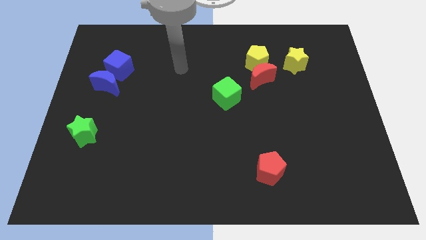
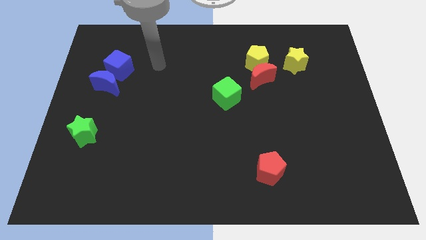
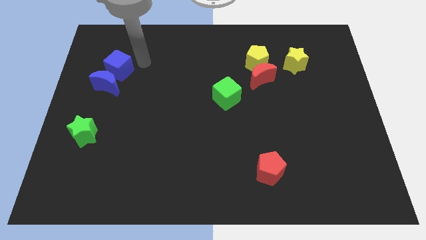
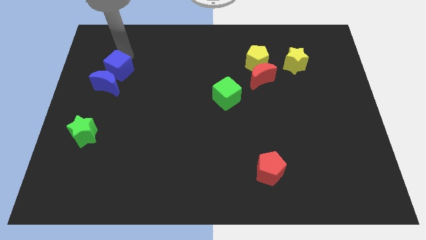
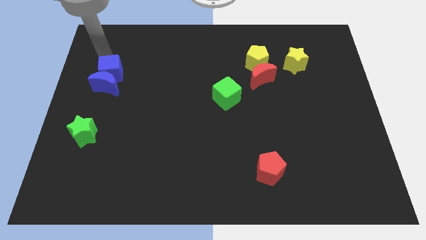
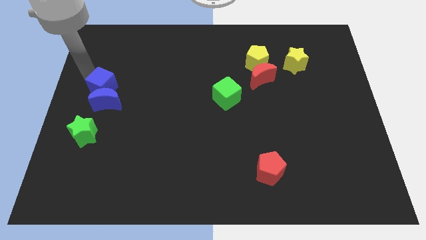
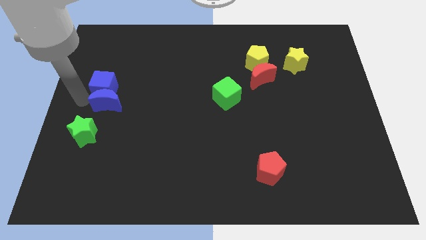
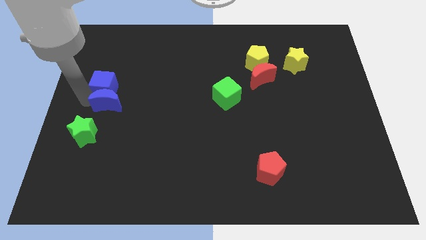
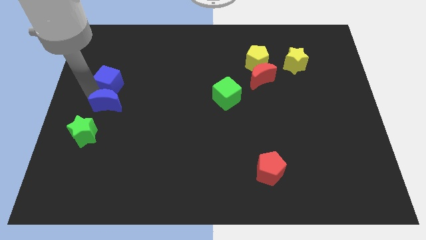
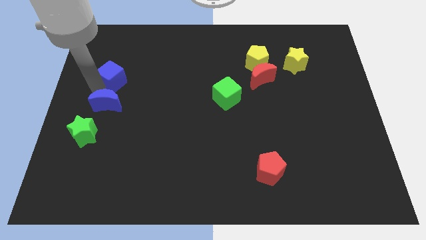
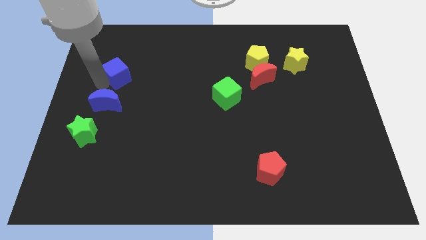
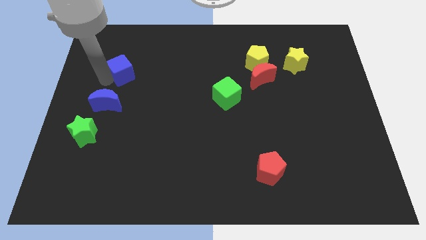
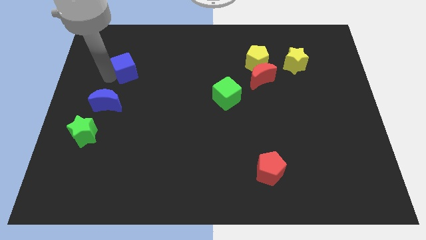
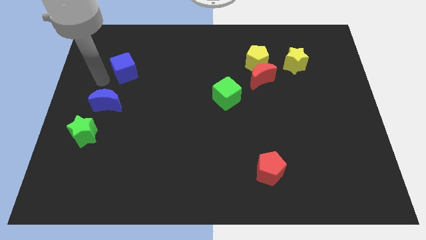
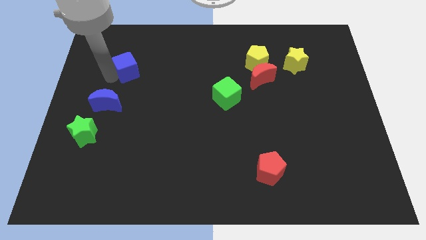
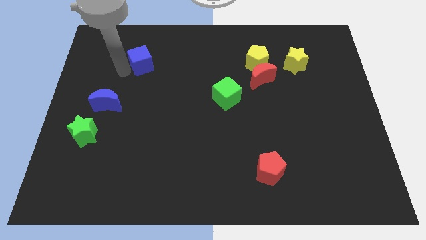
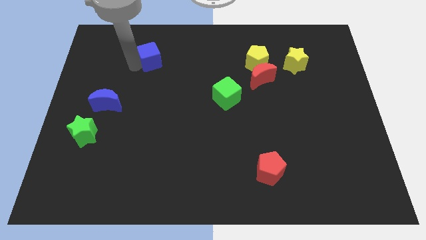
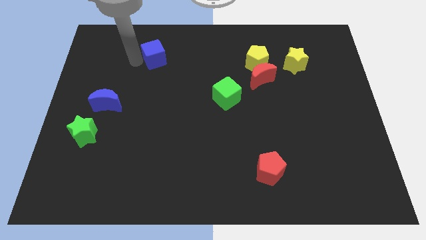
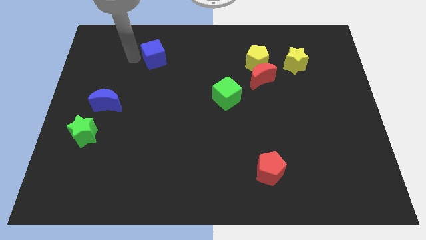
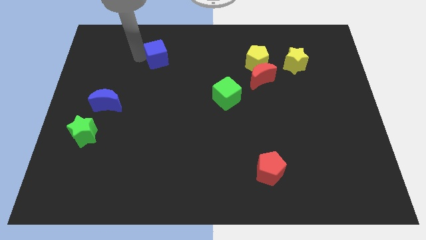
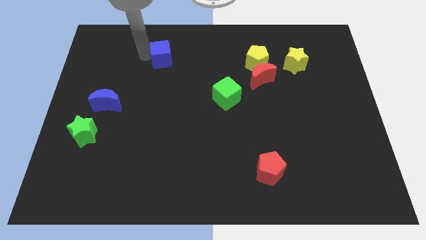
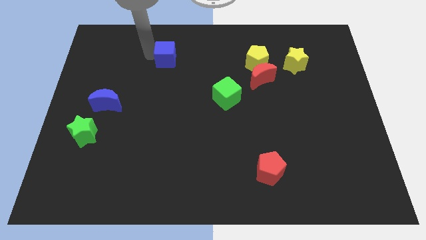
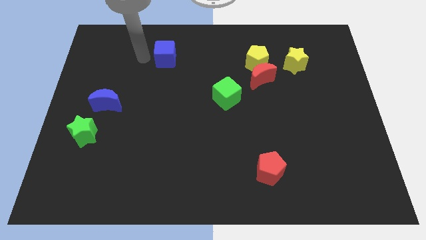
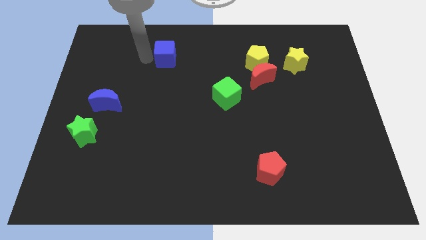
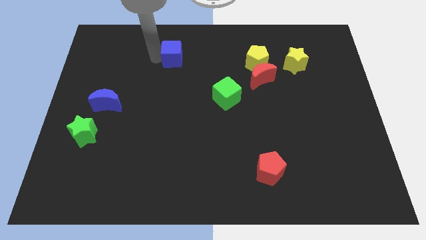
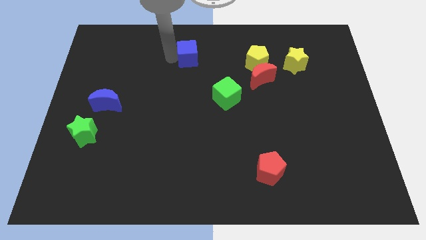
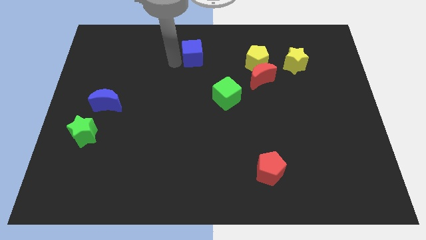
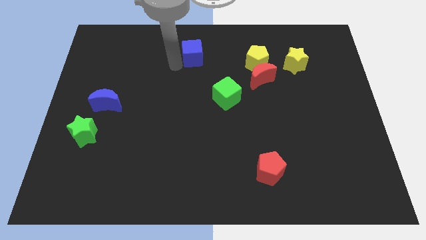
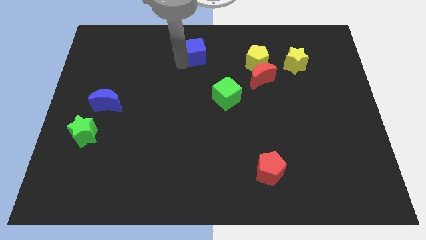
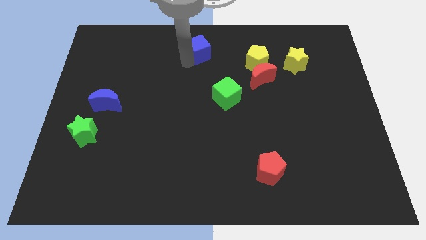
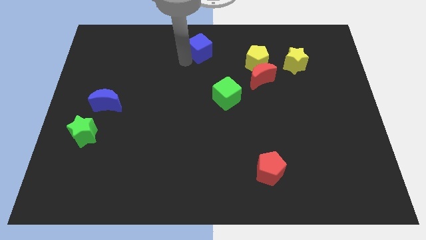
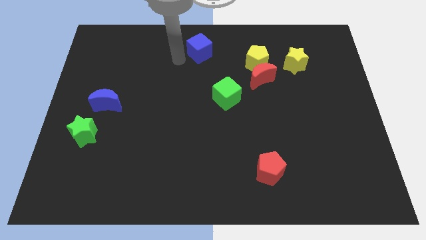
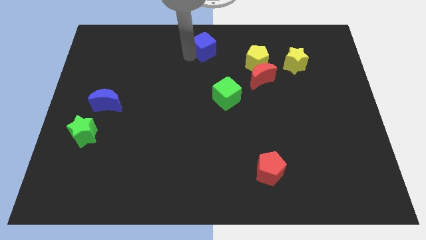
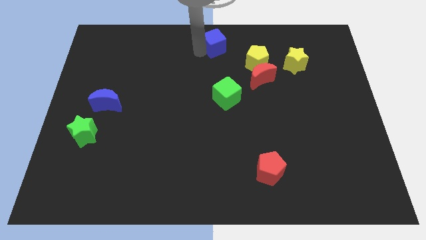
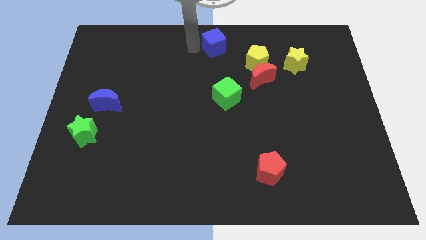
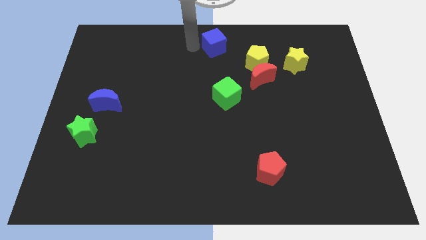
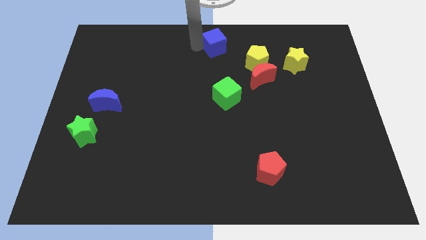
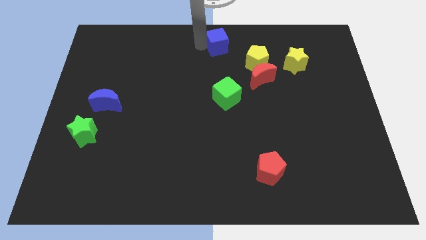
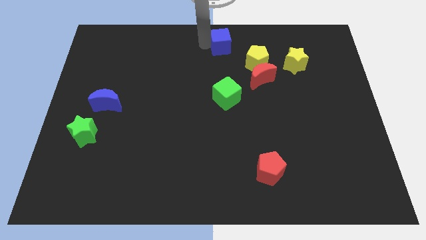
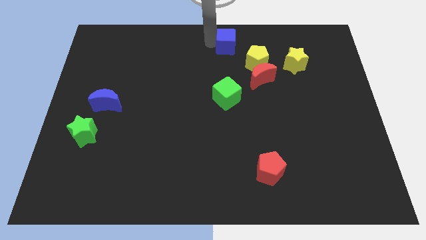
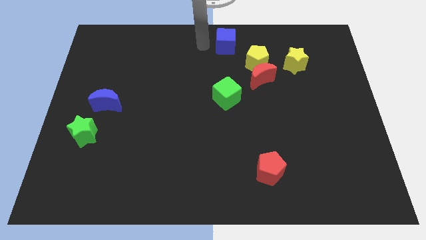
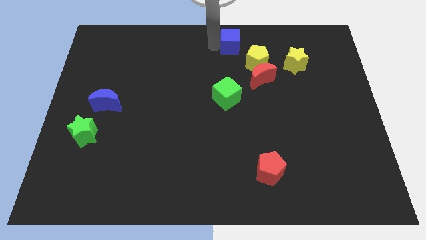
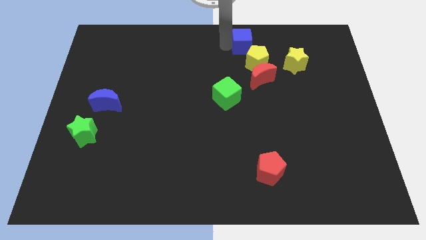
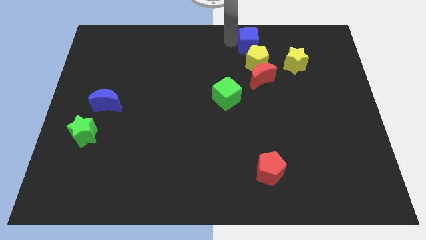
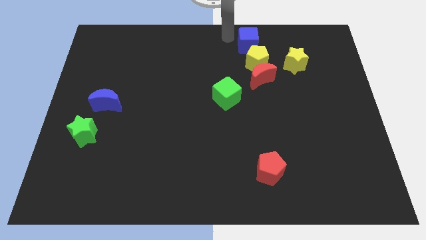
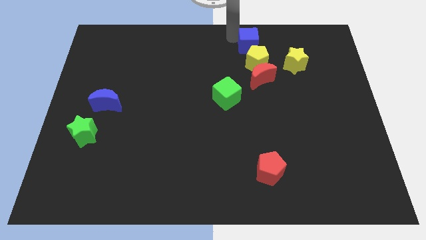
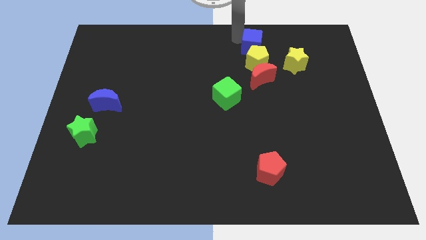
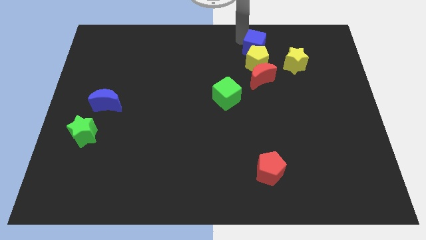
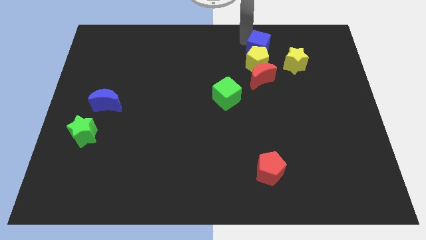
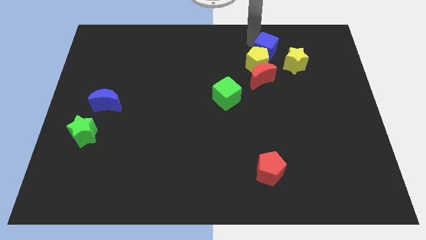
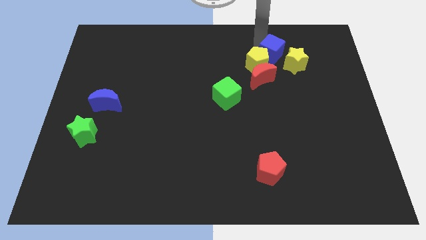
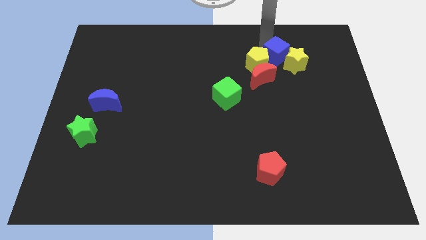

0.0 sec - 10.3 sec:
move the blue cube towards the yellow star

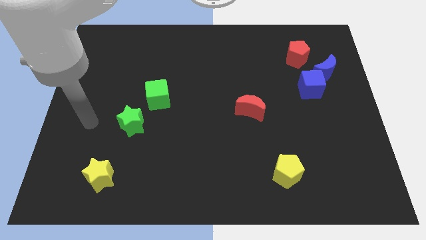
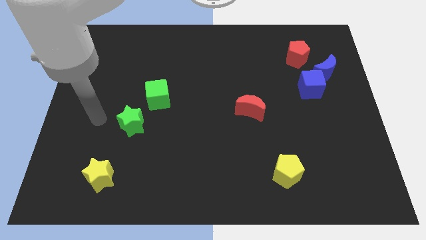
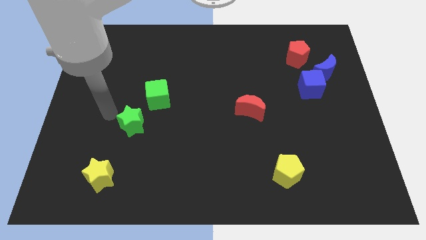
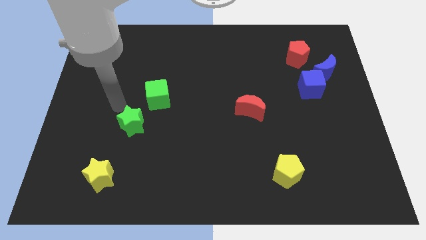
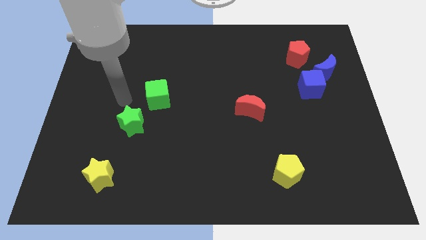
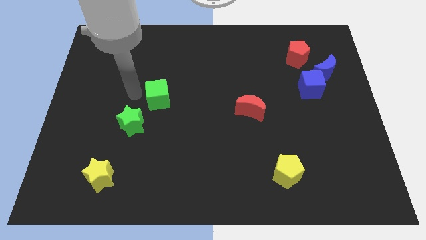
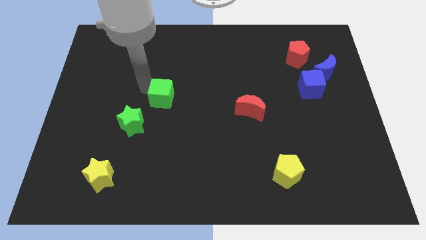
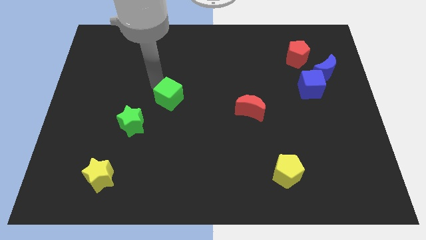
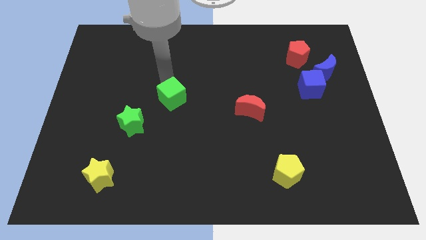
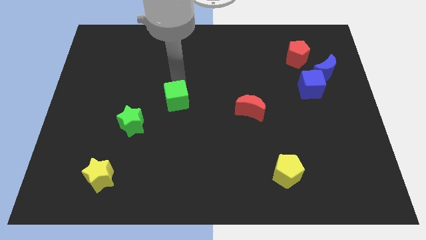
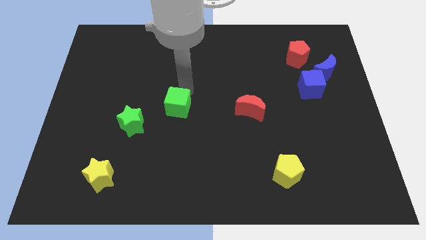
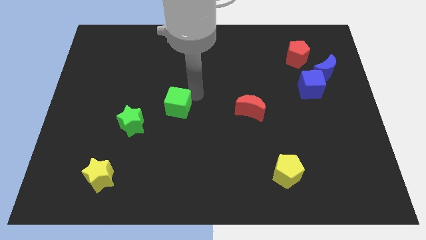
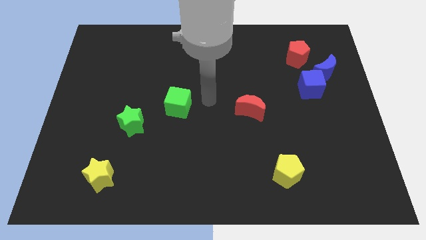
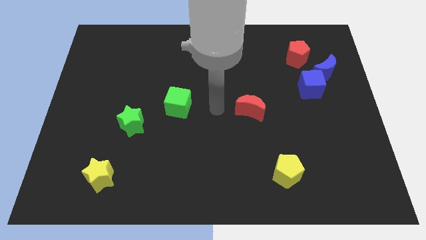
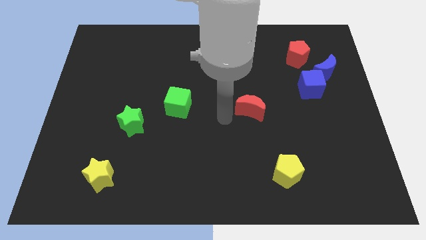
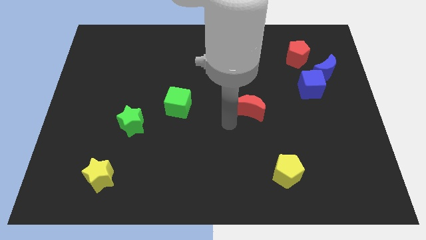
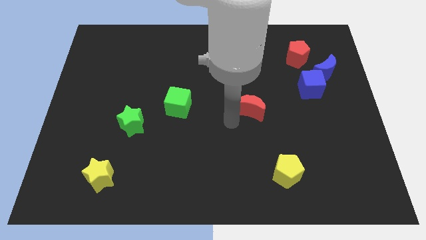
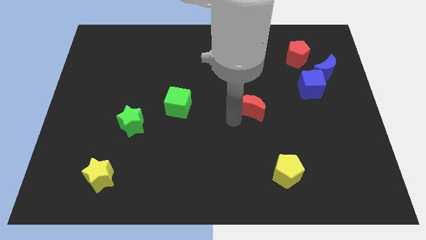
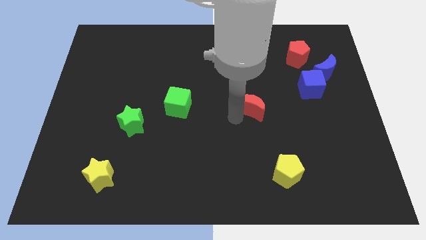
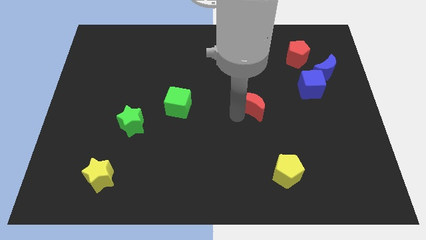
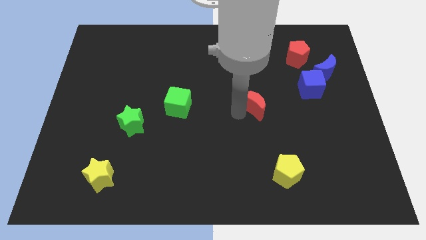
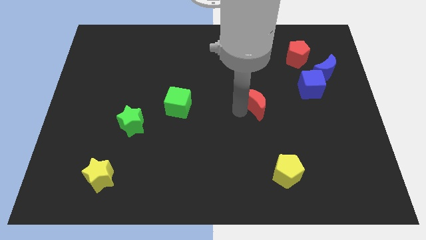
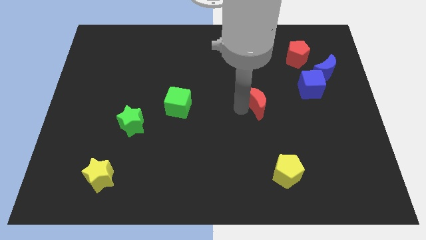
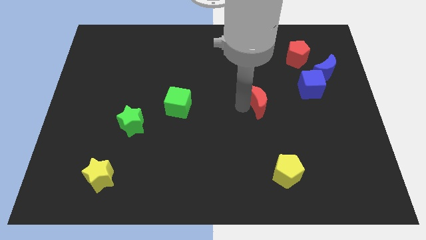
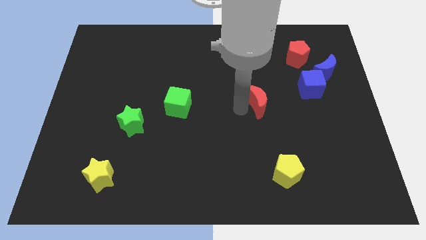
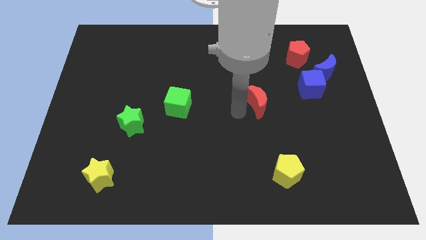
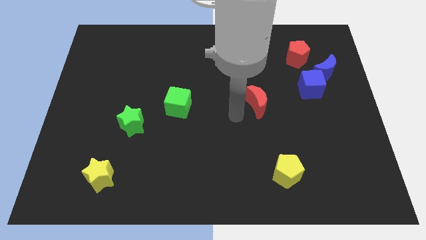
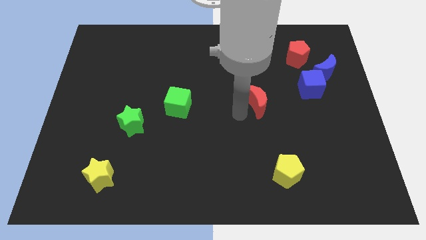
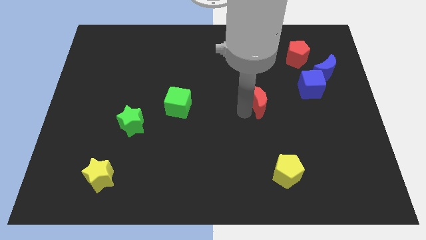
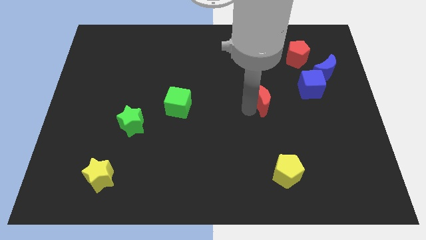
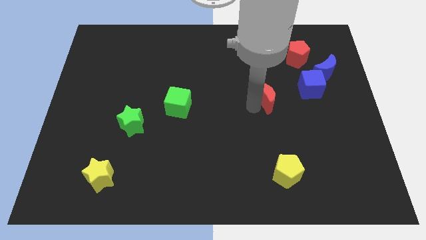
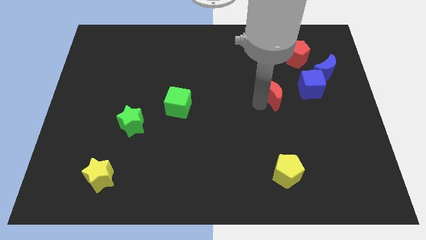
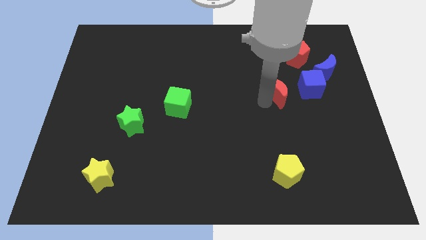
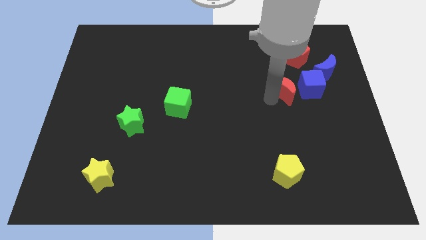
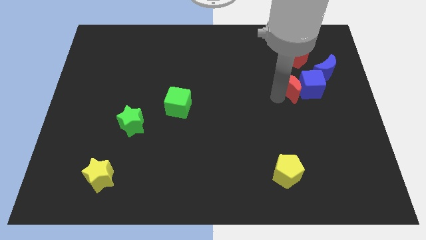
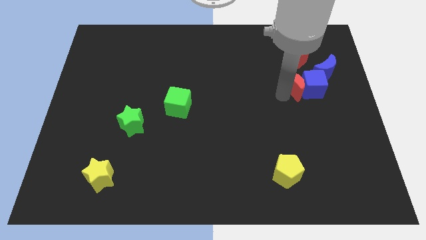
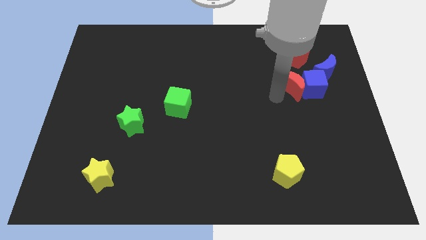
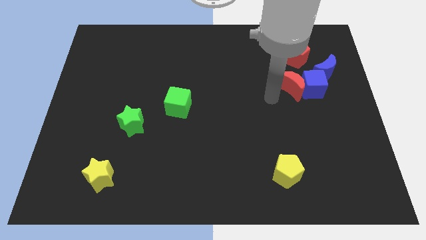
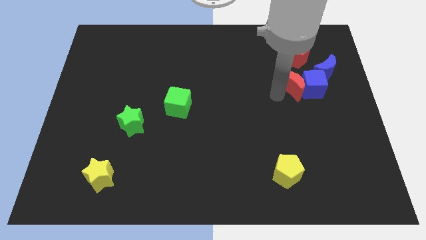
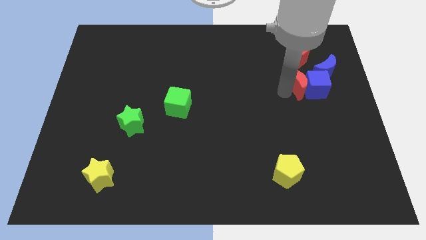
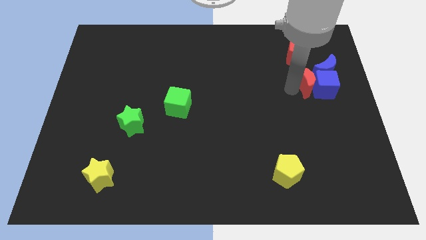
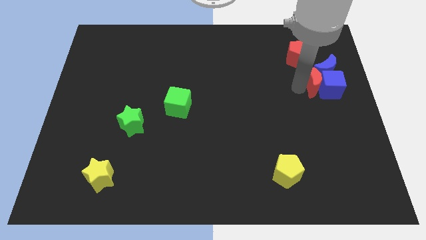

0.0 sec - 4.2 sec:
move the red moon to the blue moon
